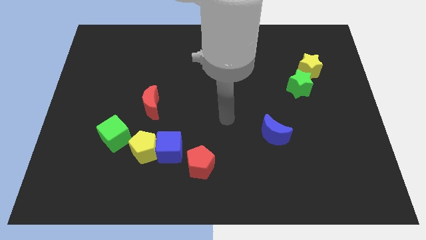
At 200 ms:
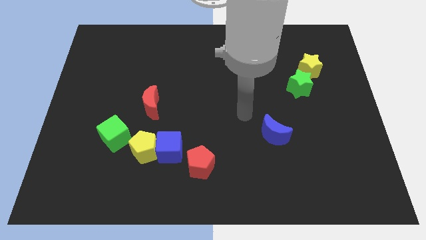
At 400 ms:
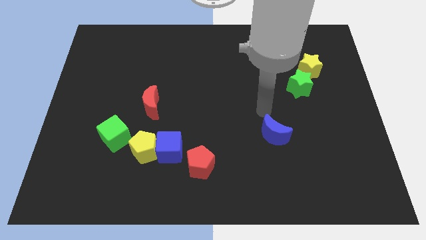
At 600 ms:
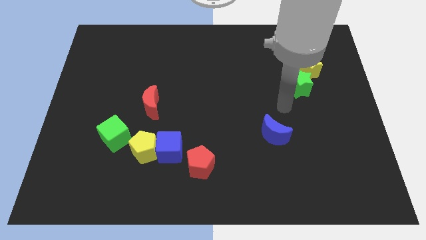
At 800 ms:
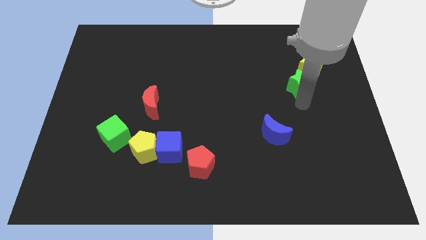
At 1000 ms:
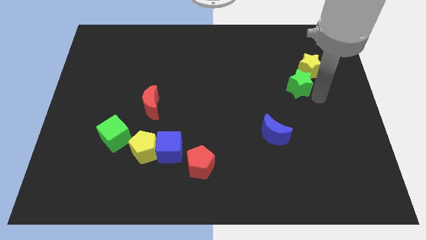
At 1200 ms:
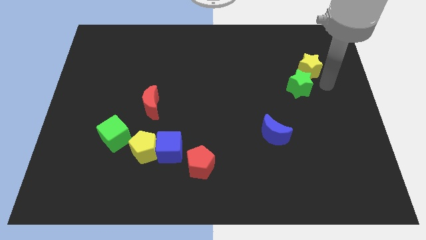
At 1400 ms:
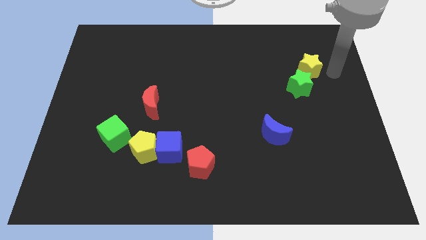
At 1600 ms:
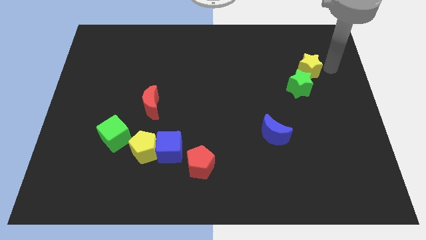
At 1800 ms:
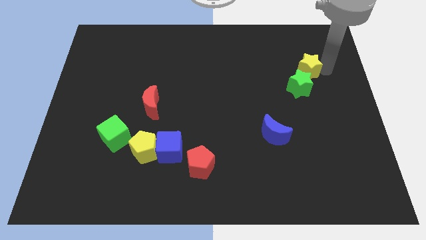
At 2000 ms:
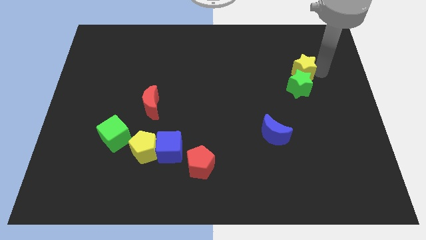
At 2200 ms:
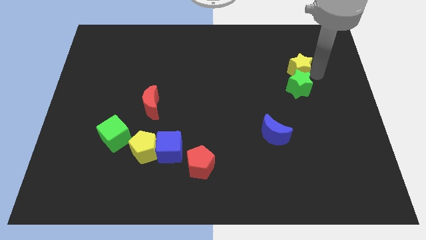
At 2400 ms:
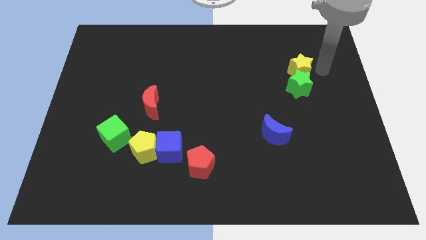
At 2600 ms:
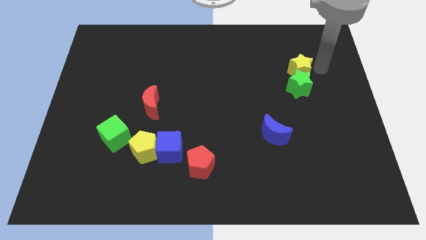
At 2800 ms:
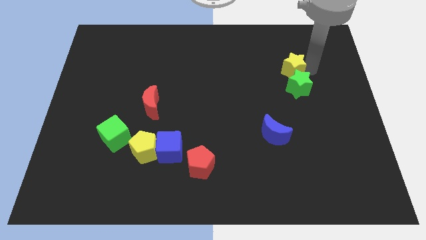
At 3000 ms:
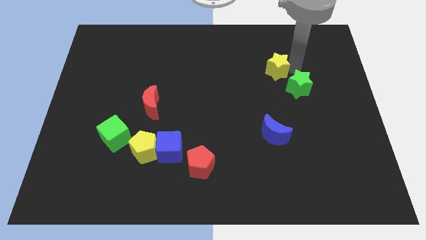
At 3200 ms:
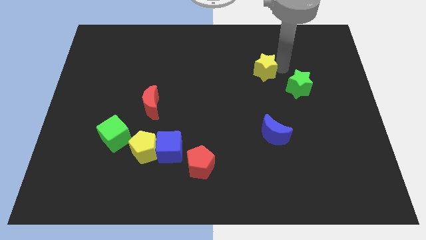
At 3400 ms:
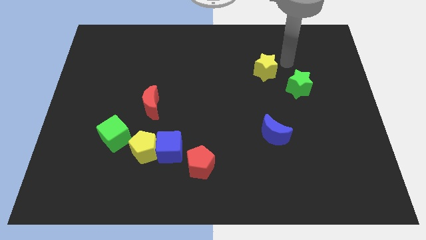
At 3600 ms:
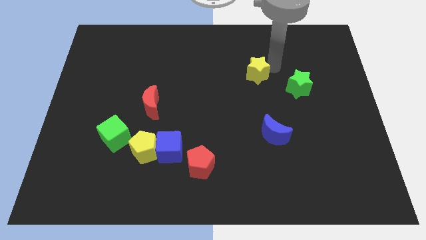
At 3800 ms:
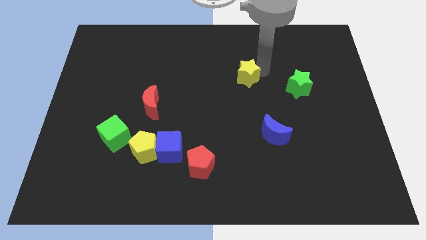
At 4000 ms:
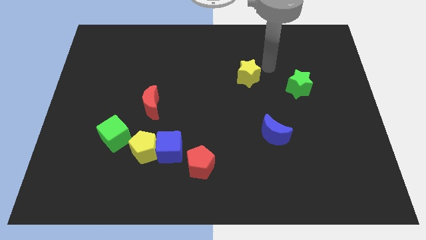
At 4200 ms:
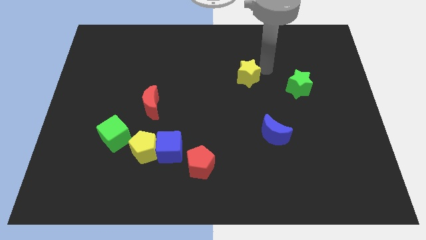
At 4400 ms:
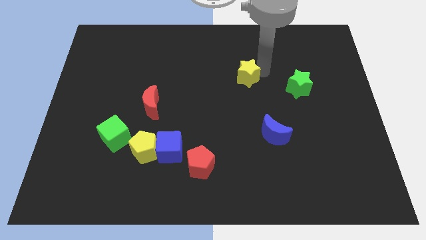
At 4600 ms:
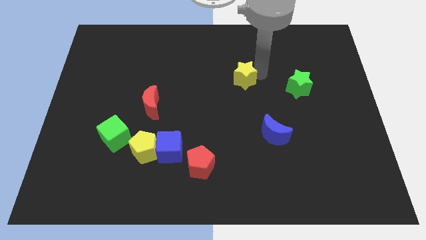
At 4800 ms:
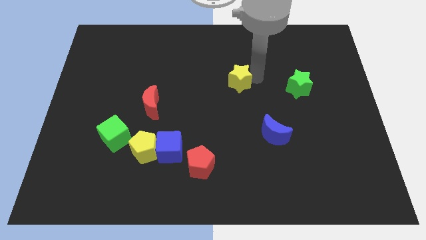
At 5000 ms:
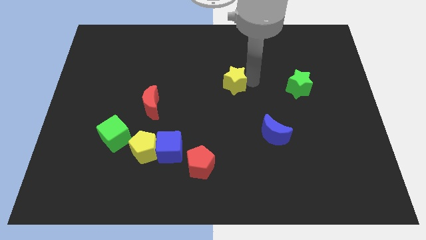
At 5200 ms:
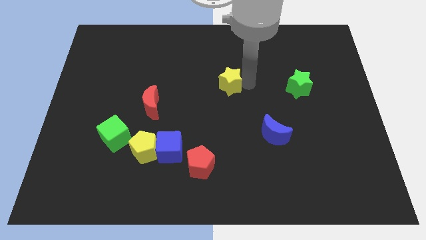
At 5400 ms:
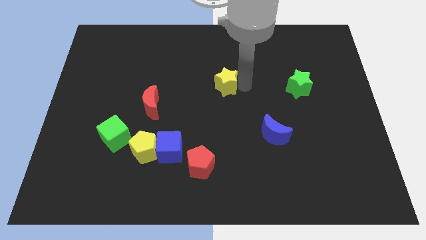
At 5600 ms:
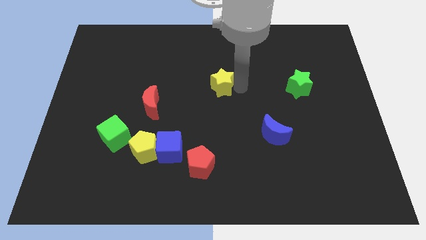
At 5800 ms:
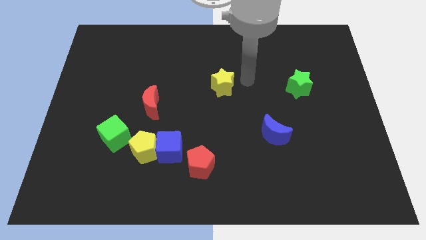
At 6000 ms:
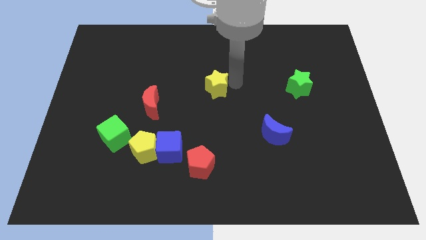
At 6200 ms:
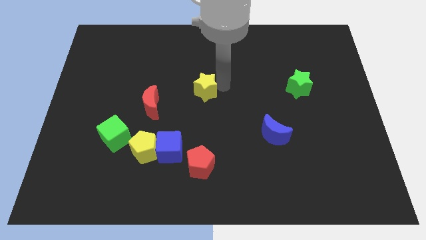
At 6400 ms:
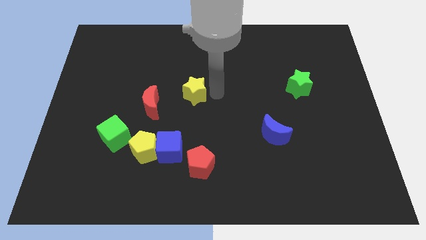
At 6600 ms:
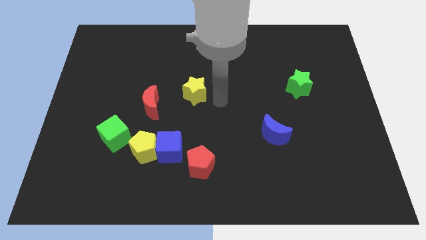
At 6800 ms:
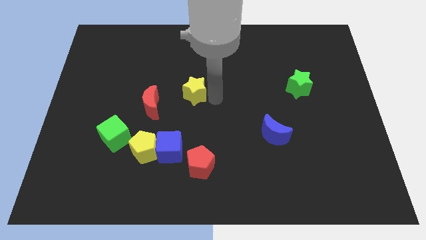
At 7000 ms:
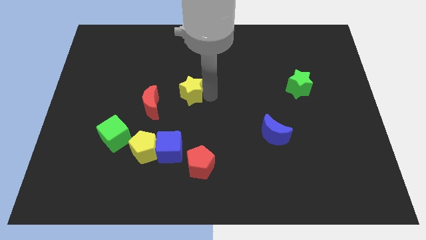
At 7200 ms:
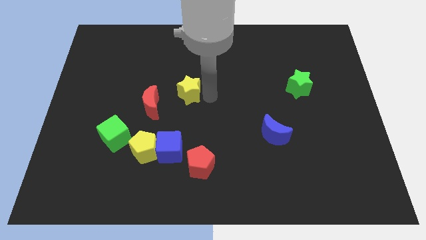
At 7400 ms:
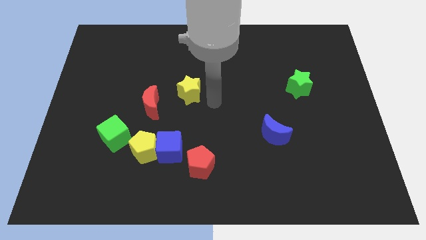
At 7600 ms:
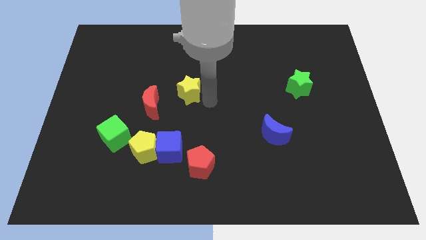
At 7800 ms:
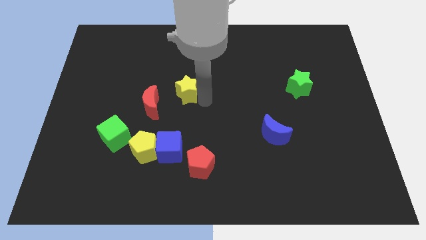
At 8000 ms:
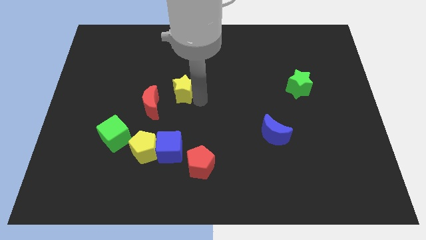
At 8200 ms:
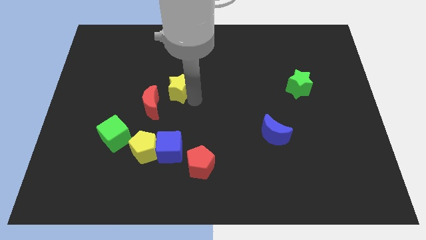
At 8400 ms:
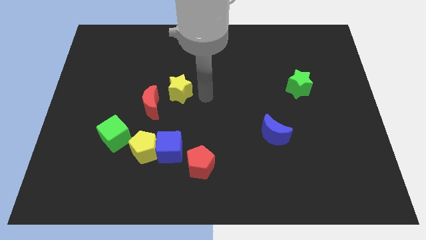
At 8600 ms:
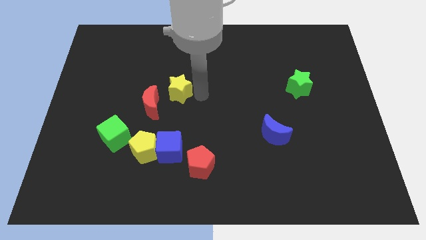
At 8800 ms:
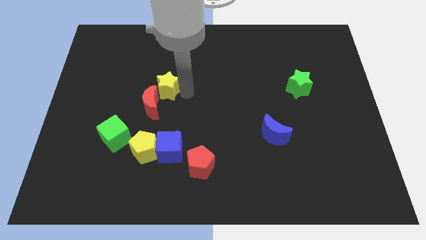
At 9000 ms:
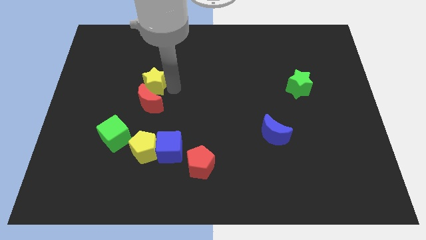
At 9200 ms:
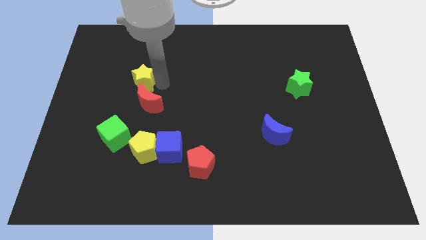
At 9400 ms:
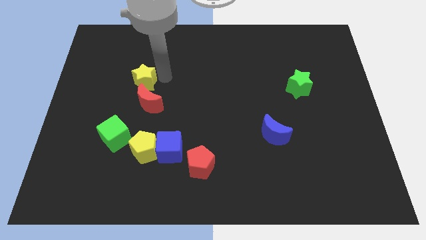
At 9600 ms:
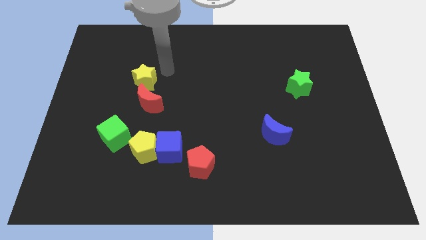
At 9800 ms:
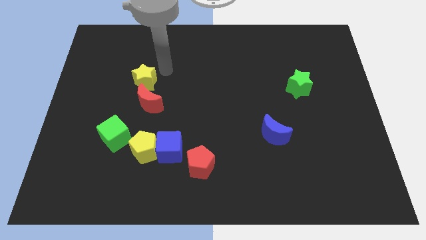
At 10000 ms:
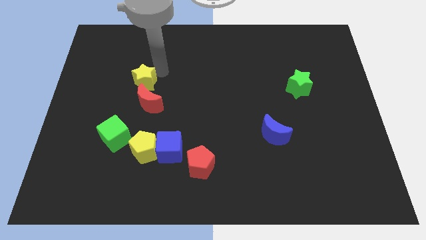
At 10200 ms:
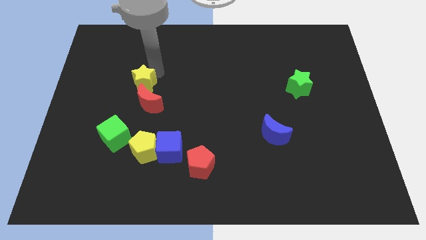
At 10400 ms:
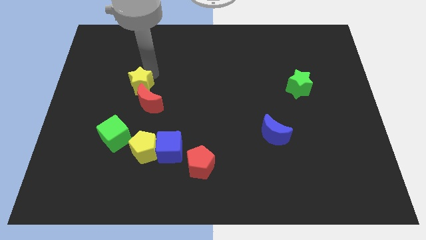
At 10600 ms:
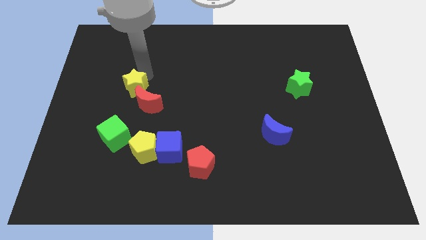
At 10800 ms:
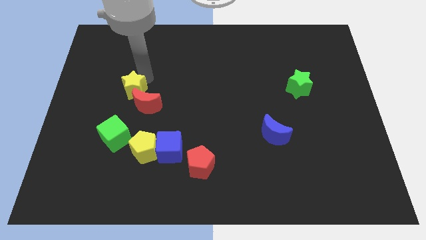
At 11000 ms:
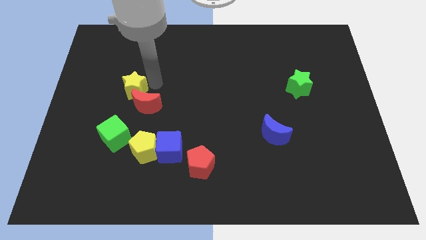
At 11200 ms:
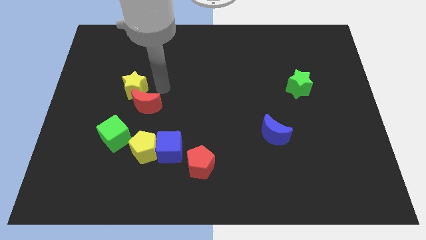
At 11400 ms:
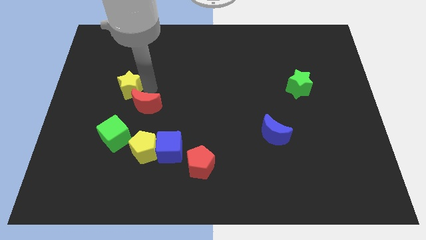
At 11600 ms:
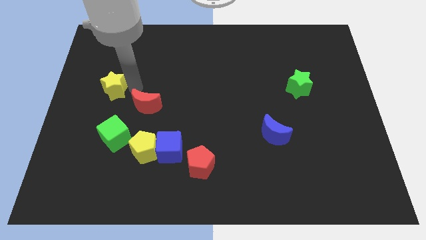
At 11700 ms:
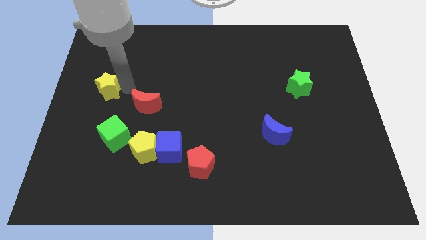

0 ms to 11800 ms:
slide the yellow star to the center left
